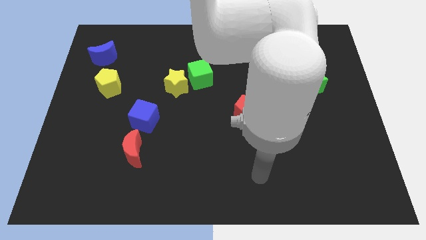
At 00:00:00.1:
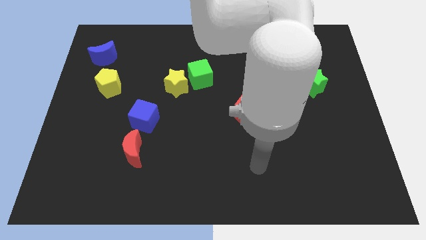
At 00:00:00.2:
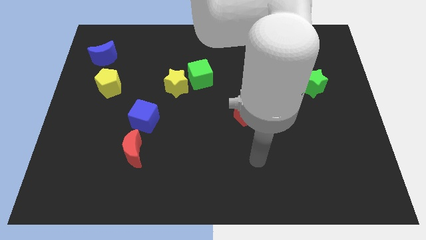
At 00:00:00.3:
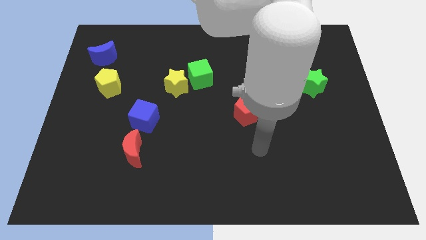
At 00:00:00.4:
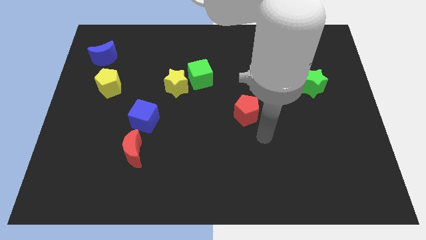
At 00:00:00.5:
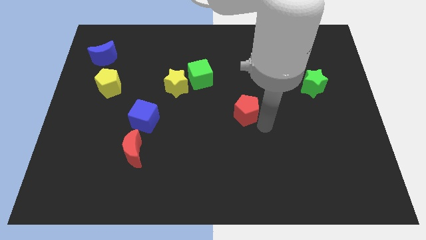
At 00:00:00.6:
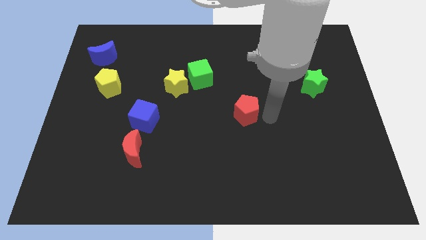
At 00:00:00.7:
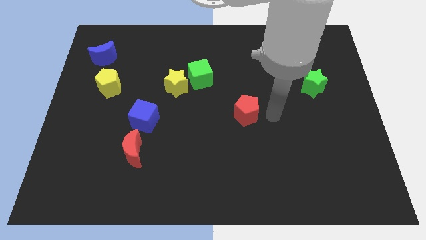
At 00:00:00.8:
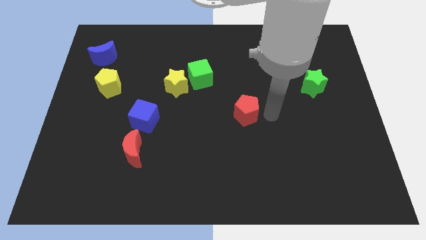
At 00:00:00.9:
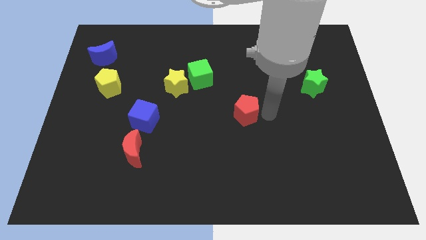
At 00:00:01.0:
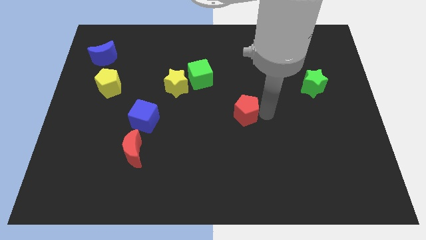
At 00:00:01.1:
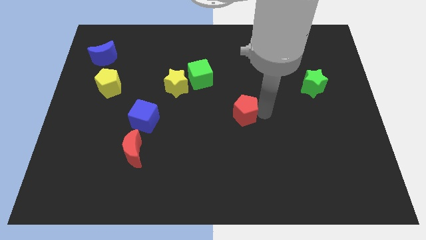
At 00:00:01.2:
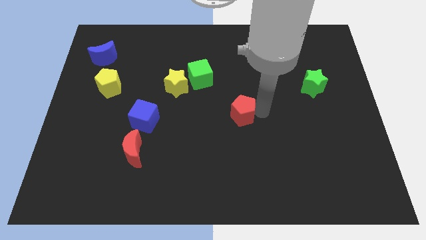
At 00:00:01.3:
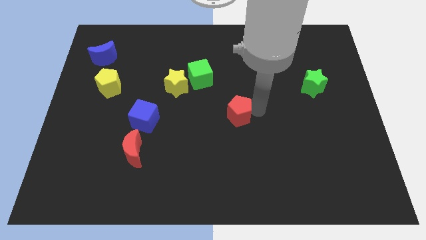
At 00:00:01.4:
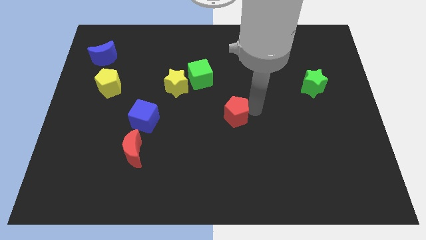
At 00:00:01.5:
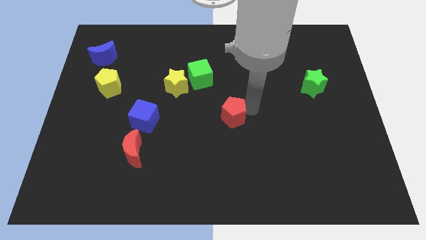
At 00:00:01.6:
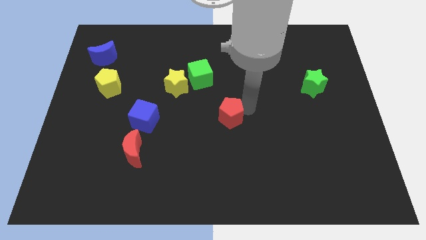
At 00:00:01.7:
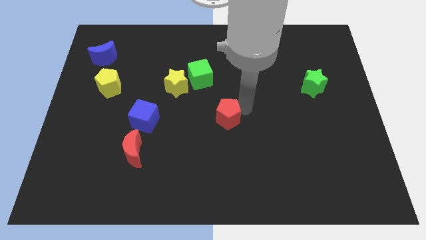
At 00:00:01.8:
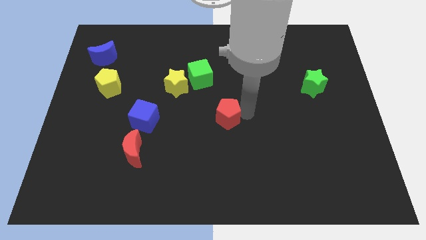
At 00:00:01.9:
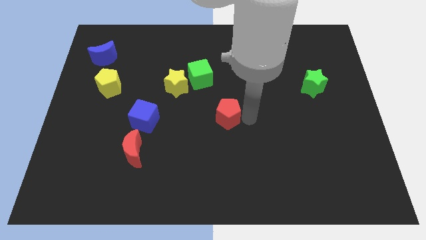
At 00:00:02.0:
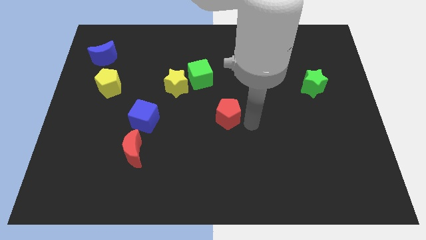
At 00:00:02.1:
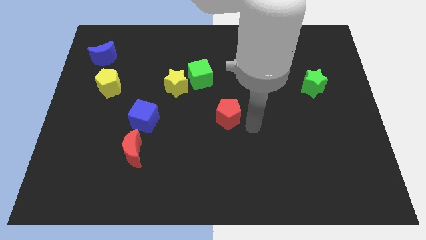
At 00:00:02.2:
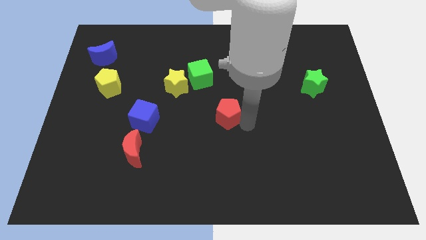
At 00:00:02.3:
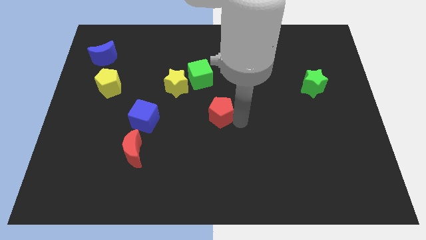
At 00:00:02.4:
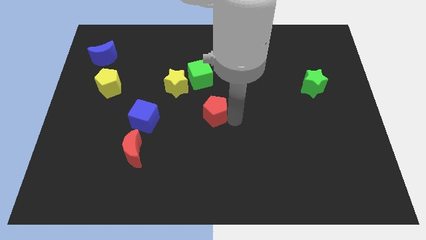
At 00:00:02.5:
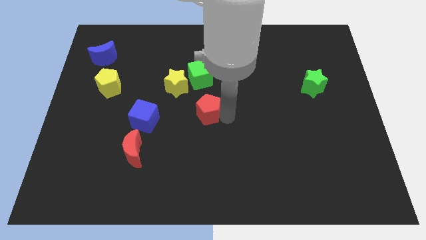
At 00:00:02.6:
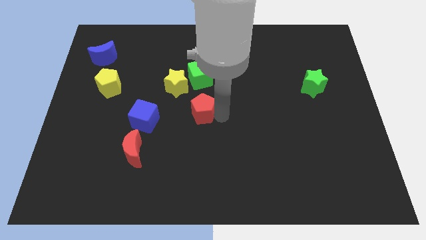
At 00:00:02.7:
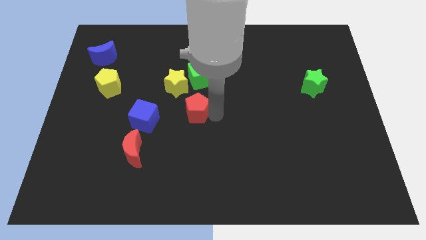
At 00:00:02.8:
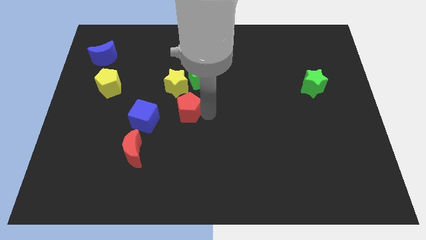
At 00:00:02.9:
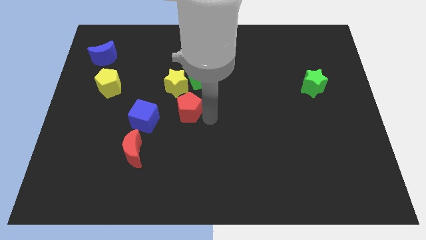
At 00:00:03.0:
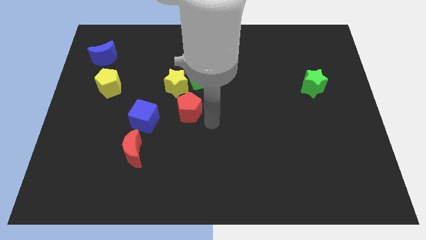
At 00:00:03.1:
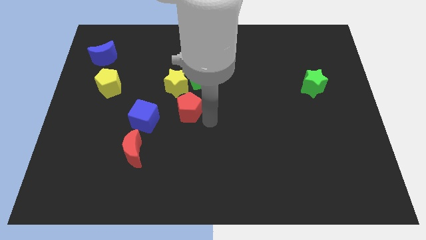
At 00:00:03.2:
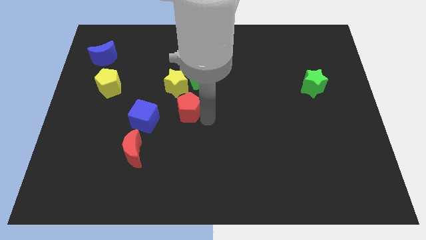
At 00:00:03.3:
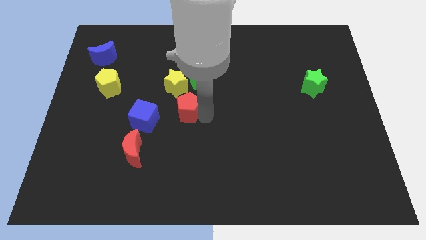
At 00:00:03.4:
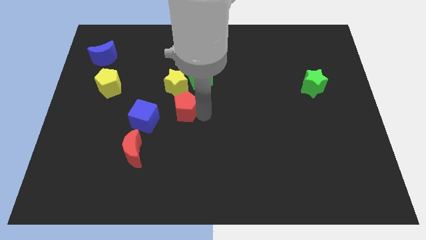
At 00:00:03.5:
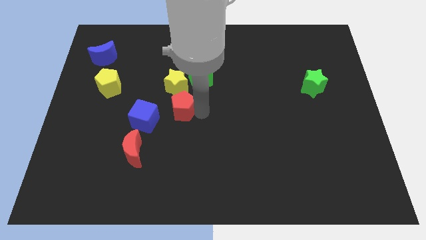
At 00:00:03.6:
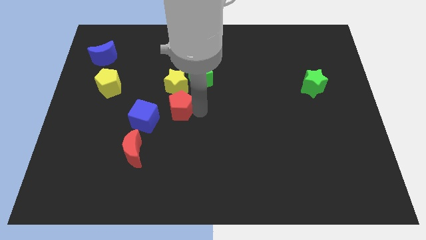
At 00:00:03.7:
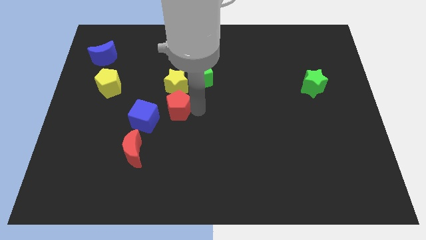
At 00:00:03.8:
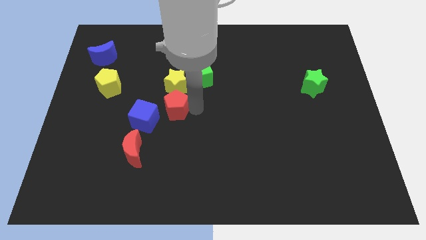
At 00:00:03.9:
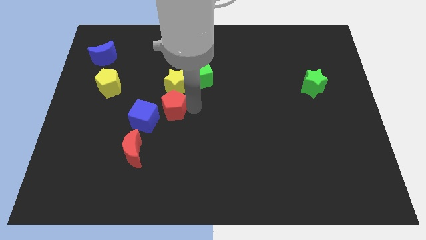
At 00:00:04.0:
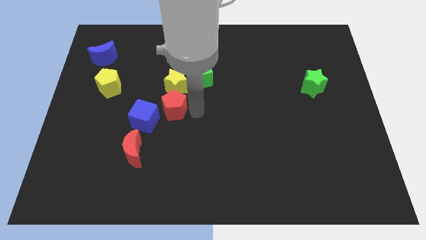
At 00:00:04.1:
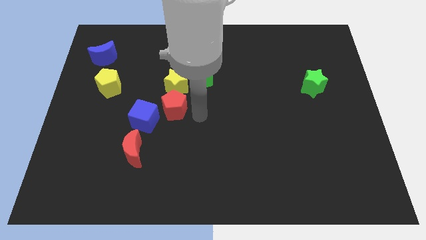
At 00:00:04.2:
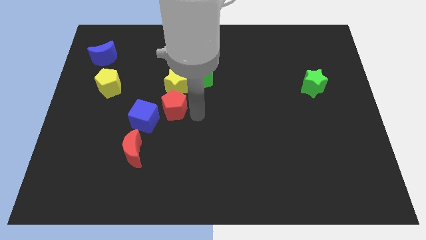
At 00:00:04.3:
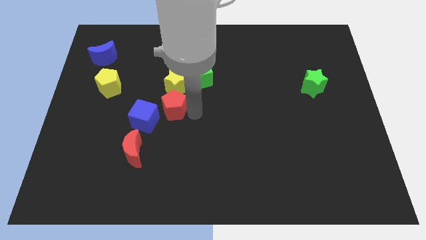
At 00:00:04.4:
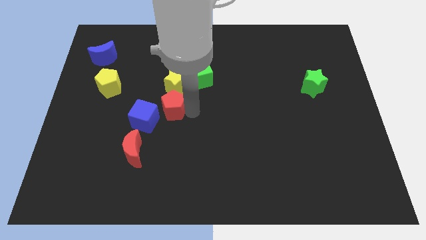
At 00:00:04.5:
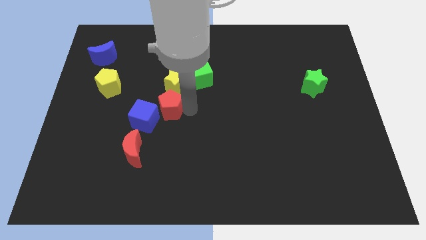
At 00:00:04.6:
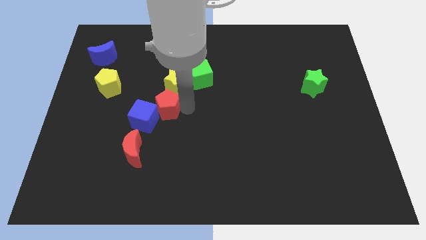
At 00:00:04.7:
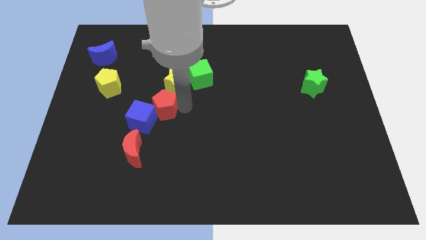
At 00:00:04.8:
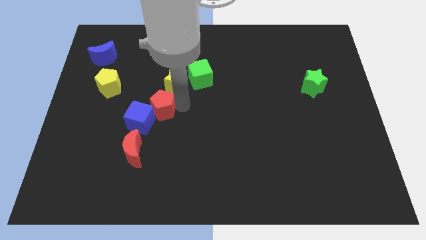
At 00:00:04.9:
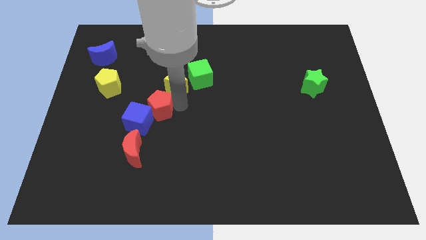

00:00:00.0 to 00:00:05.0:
push the red pentagon to the left

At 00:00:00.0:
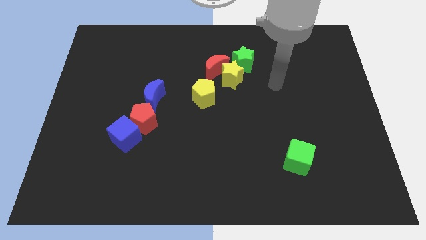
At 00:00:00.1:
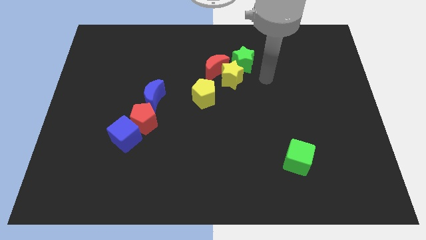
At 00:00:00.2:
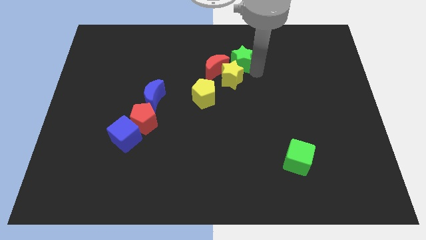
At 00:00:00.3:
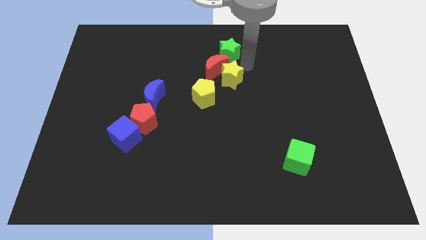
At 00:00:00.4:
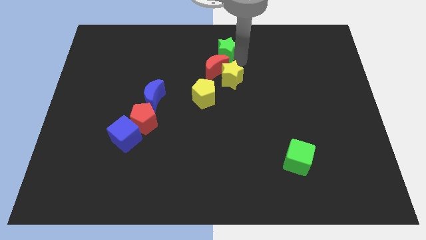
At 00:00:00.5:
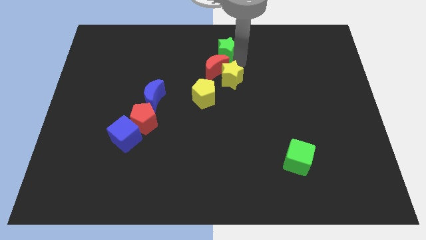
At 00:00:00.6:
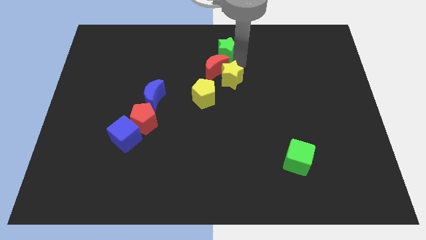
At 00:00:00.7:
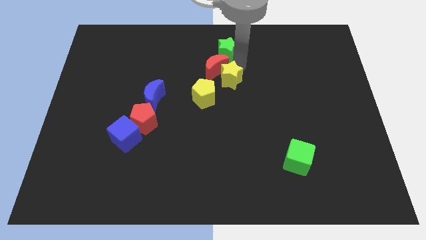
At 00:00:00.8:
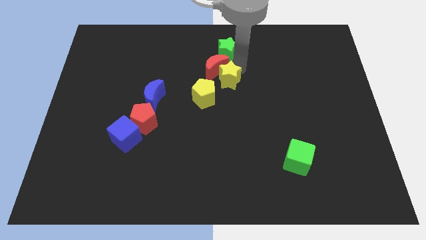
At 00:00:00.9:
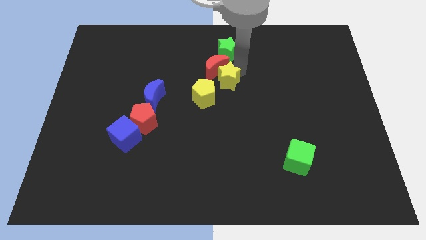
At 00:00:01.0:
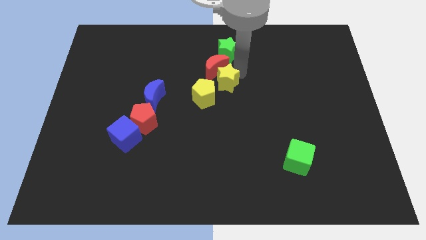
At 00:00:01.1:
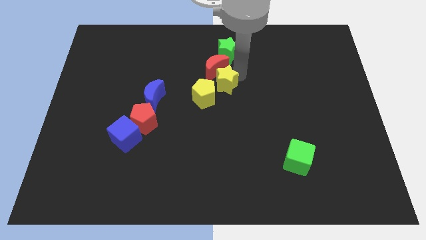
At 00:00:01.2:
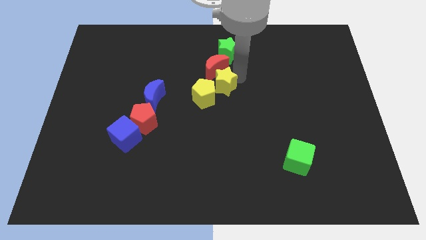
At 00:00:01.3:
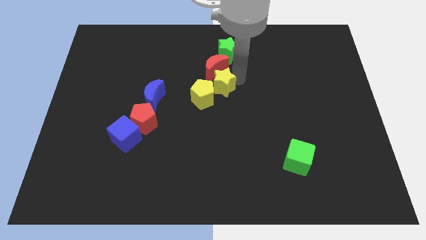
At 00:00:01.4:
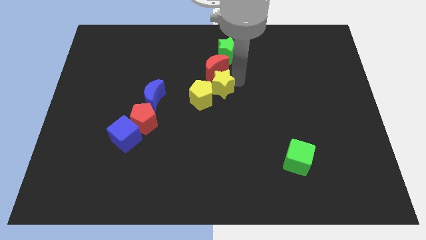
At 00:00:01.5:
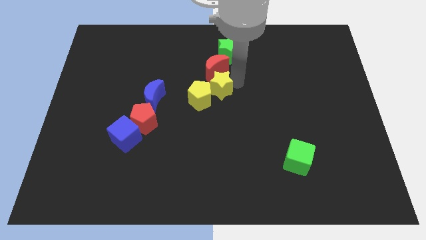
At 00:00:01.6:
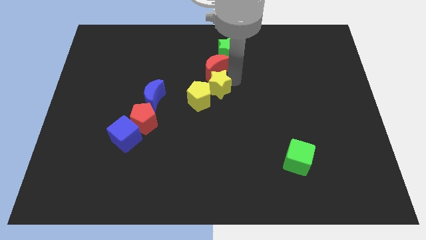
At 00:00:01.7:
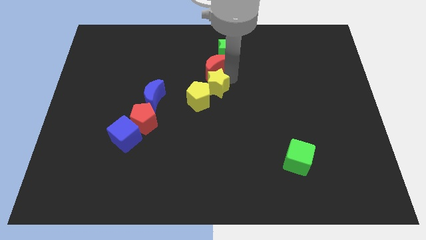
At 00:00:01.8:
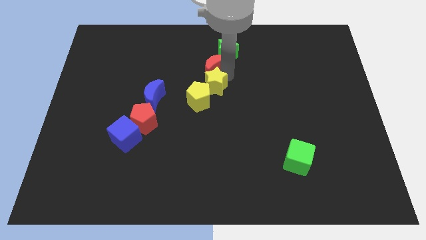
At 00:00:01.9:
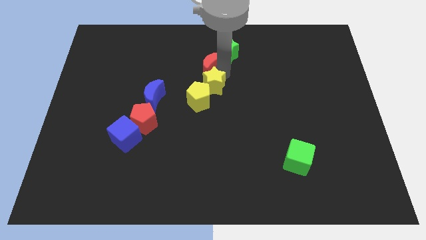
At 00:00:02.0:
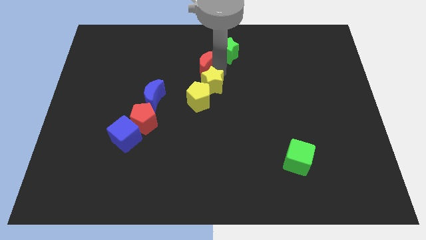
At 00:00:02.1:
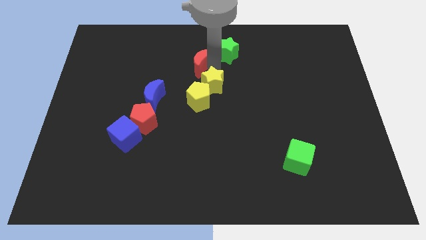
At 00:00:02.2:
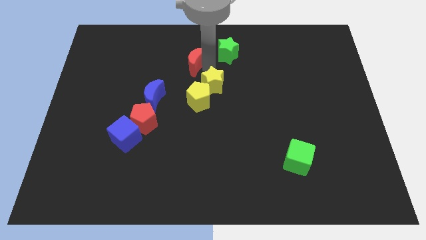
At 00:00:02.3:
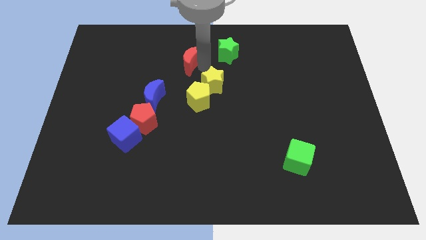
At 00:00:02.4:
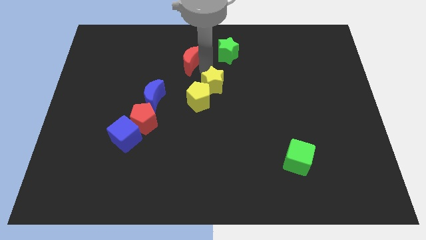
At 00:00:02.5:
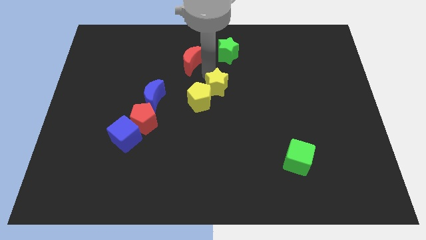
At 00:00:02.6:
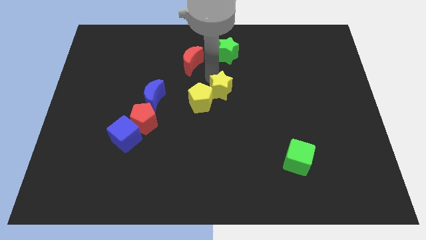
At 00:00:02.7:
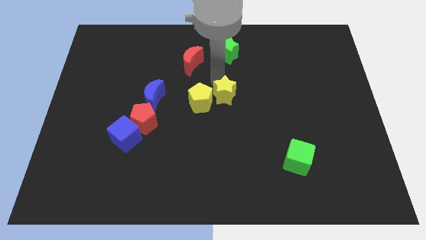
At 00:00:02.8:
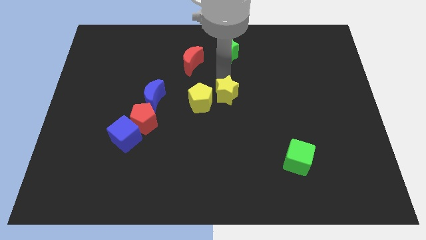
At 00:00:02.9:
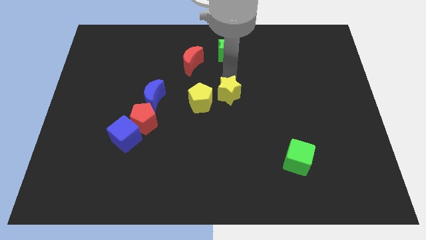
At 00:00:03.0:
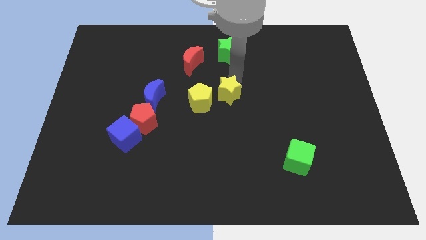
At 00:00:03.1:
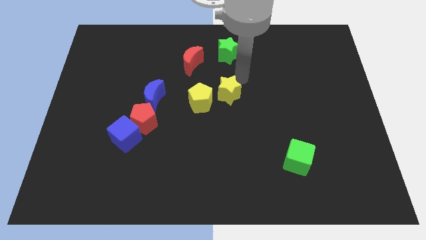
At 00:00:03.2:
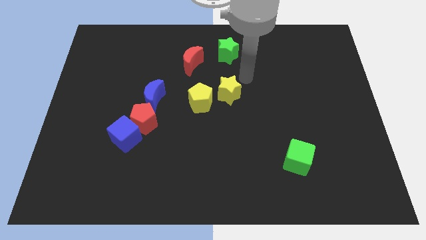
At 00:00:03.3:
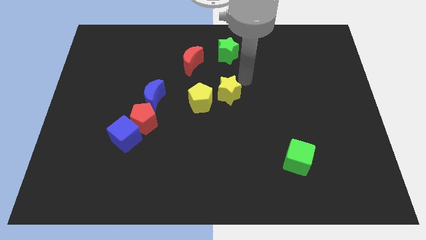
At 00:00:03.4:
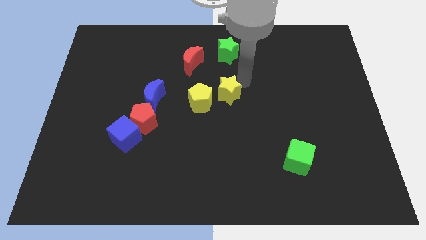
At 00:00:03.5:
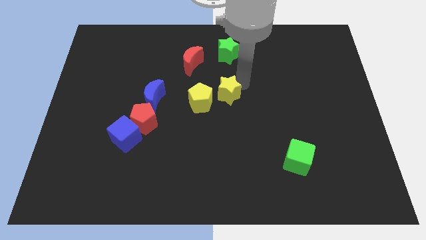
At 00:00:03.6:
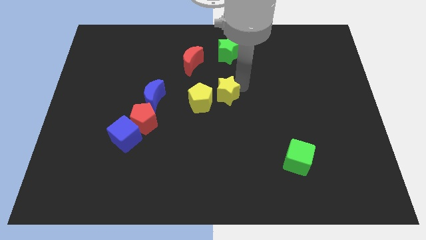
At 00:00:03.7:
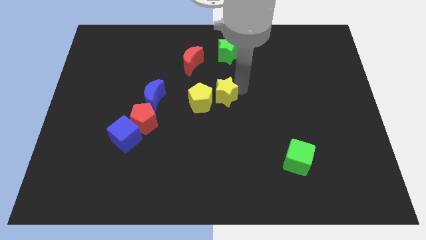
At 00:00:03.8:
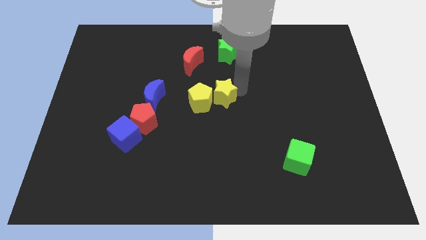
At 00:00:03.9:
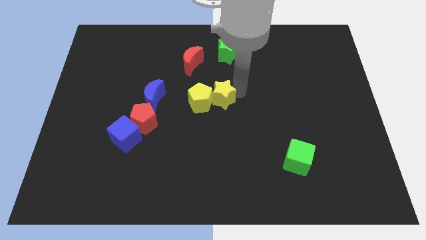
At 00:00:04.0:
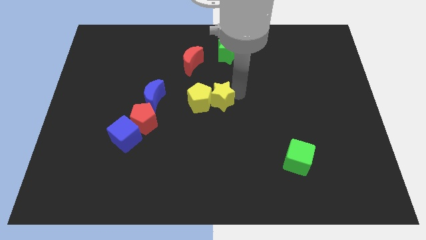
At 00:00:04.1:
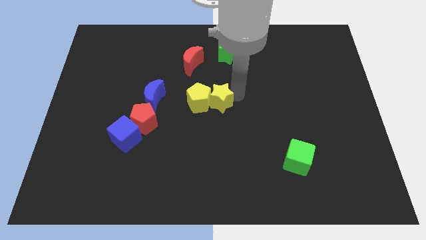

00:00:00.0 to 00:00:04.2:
slightly push the yellow star downwards and to the left diagonally
